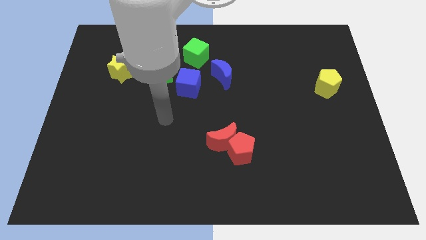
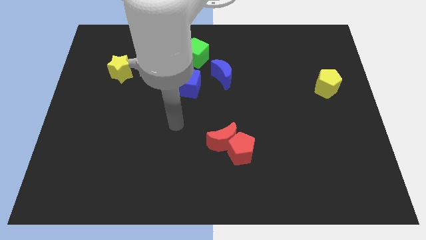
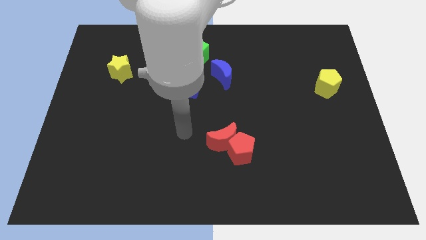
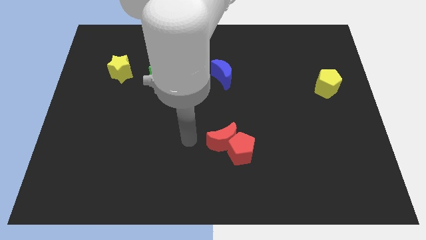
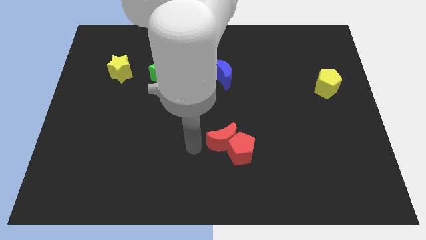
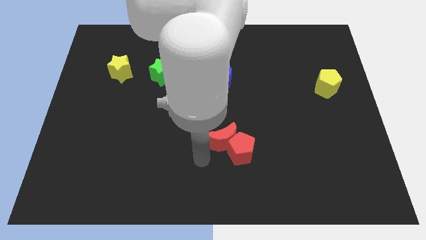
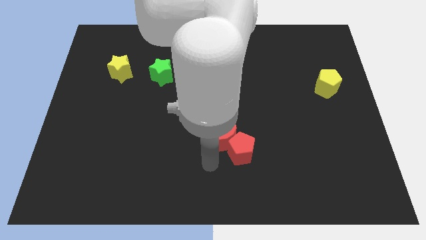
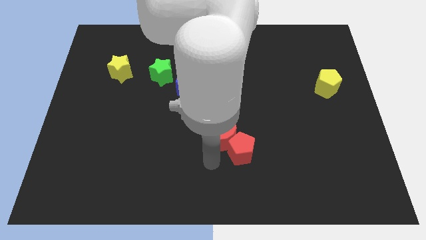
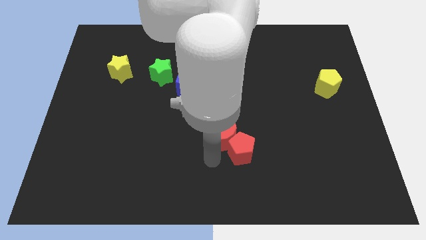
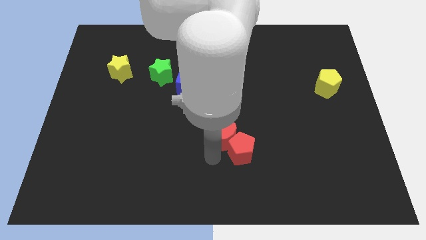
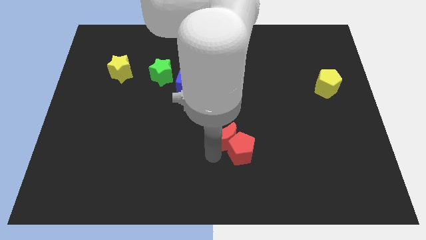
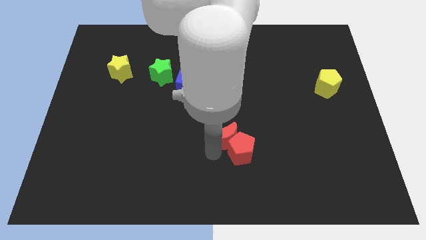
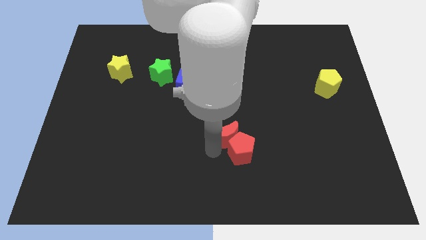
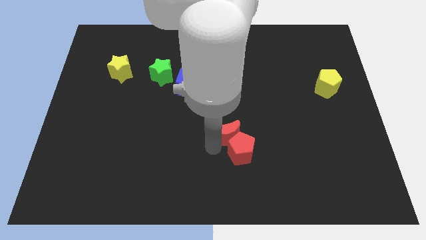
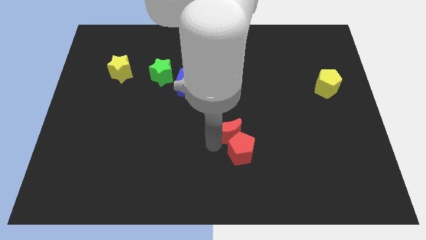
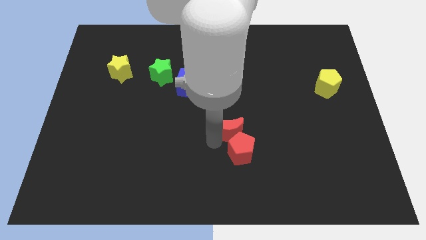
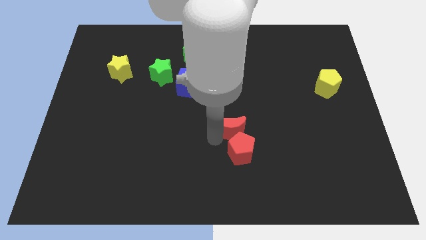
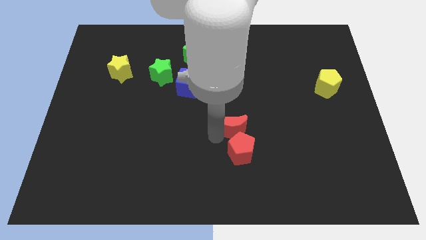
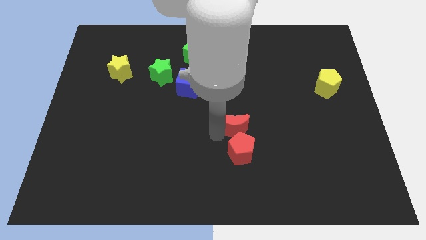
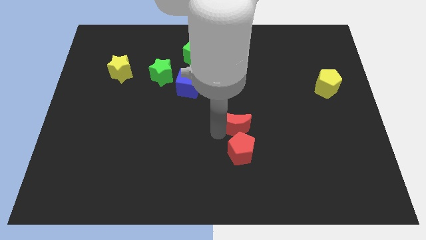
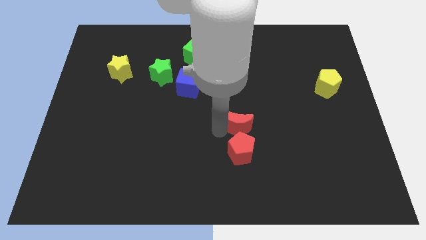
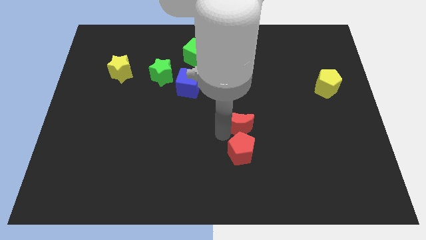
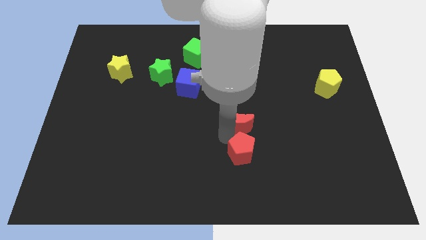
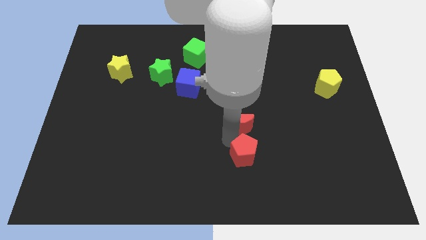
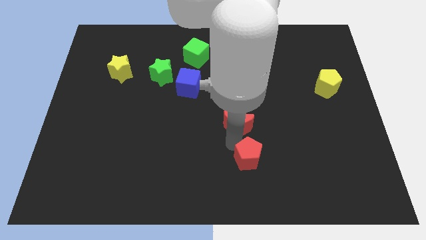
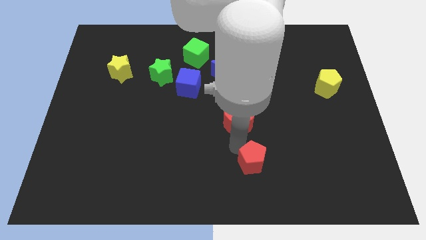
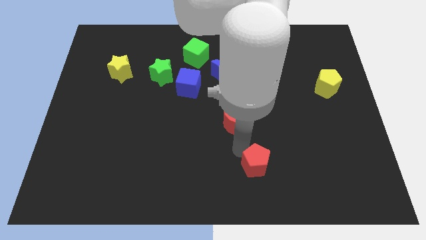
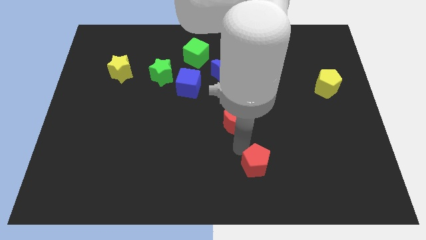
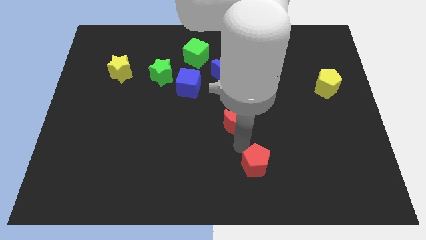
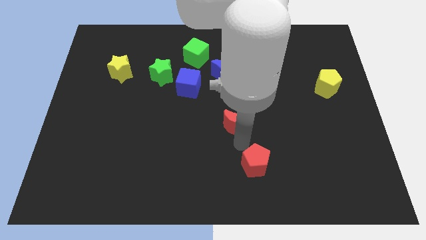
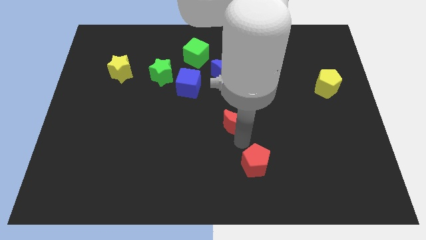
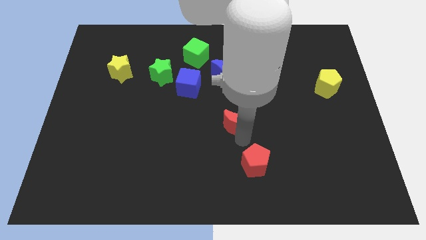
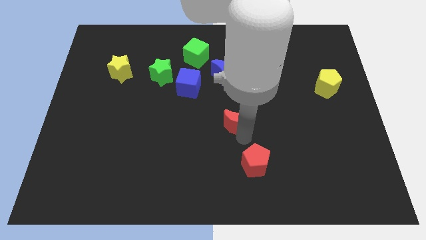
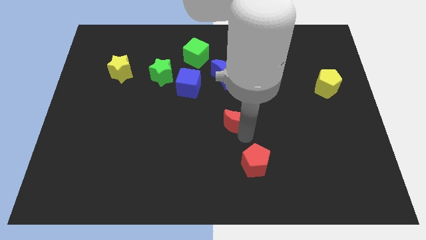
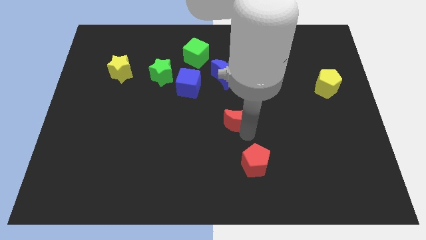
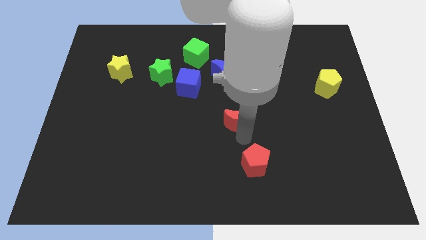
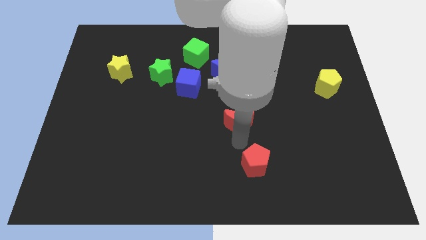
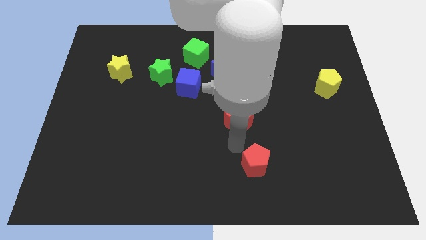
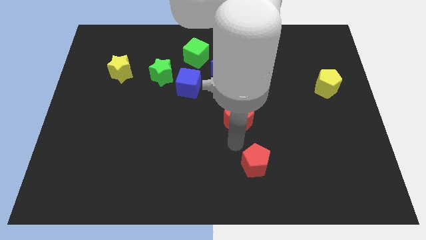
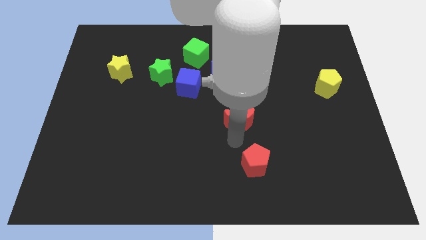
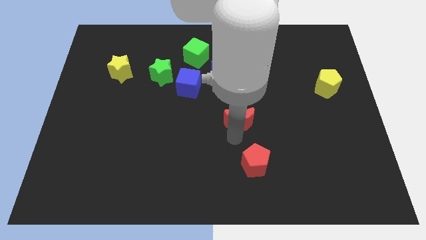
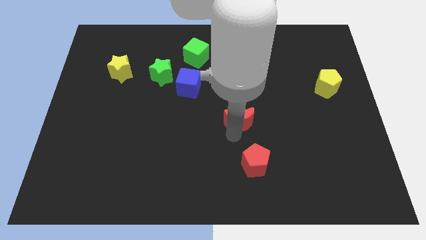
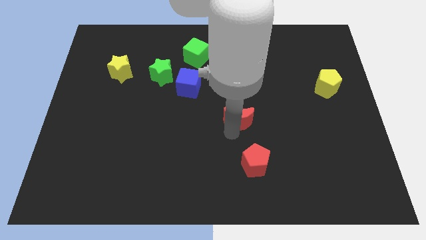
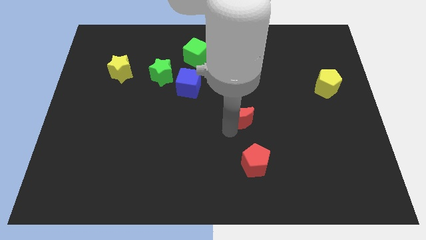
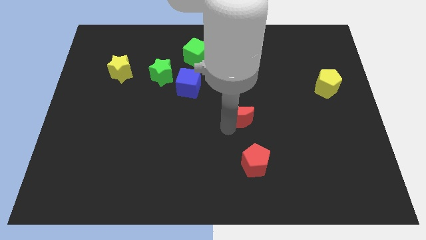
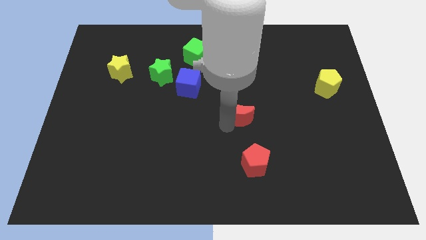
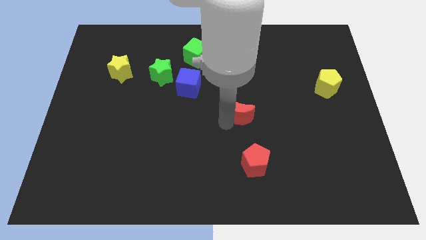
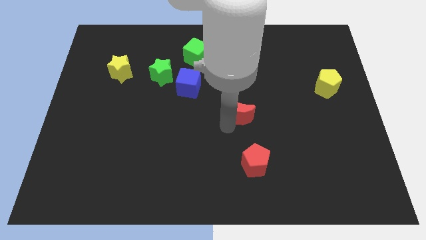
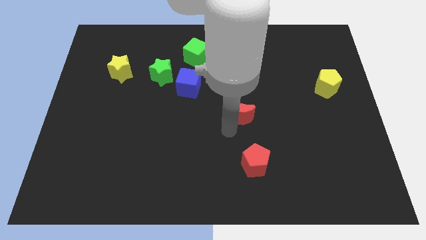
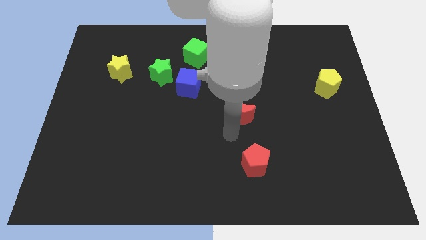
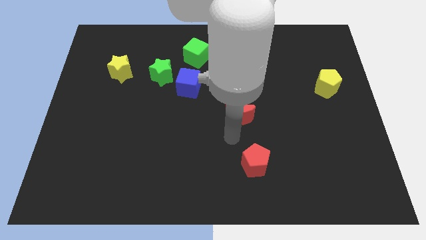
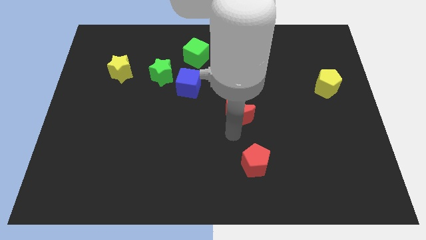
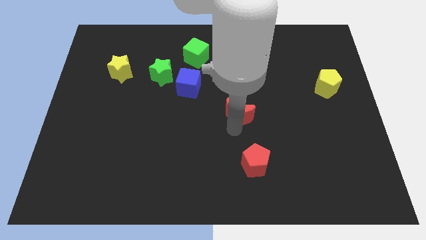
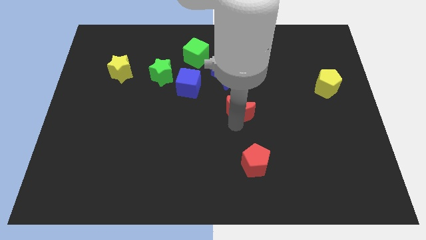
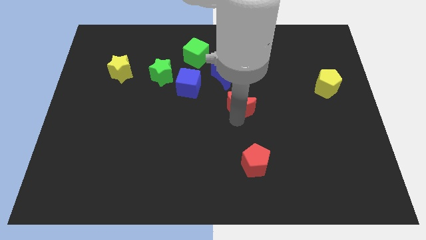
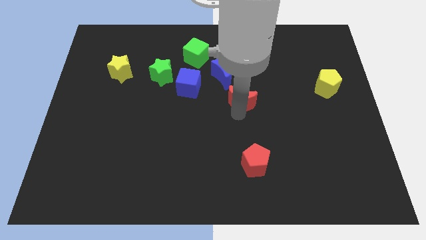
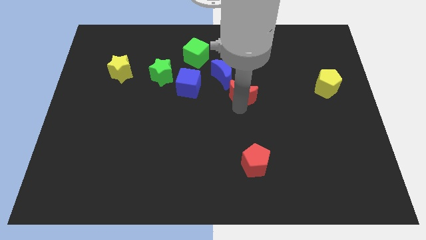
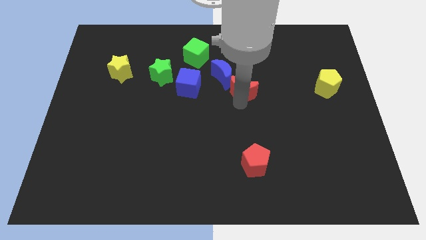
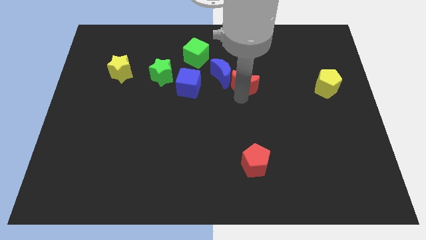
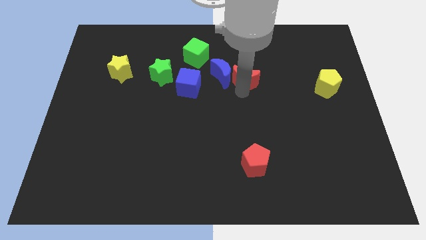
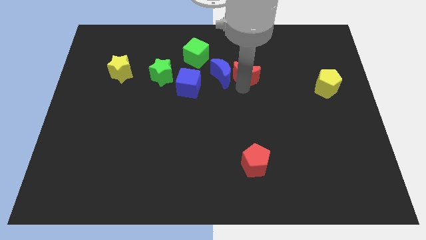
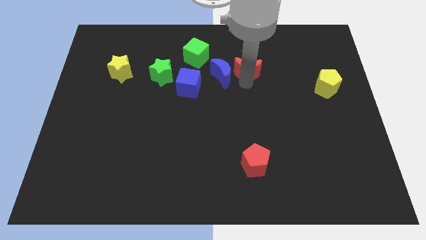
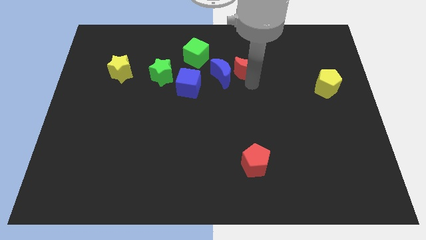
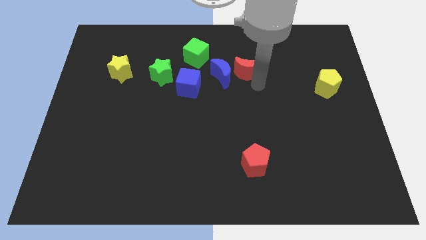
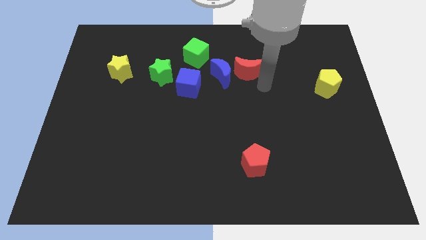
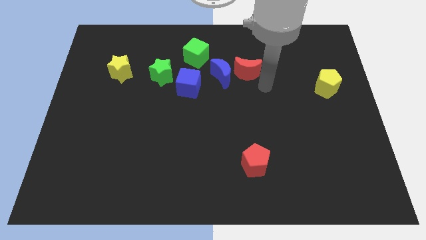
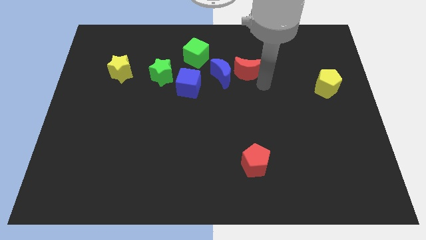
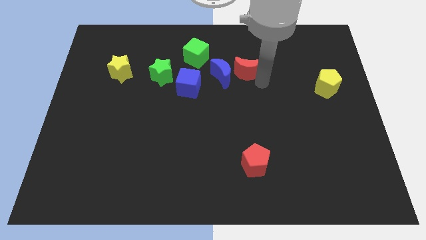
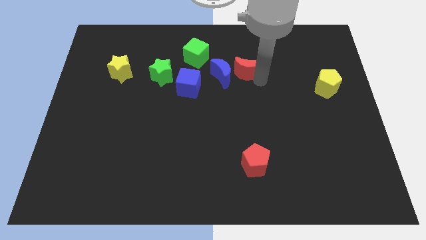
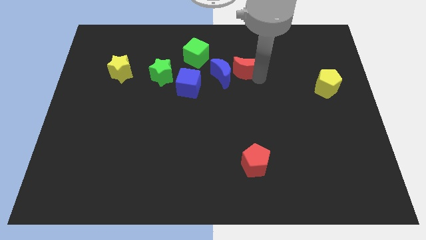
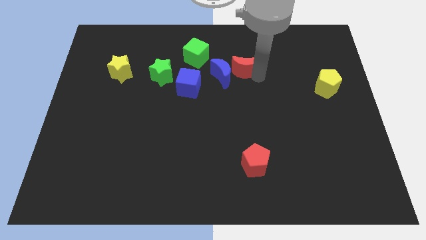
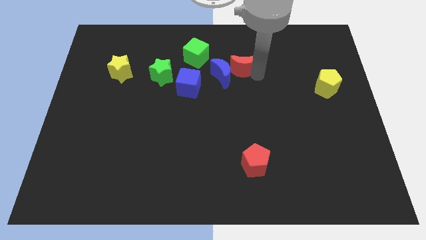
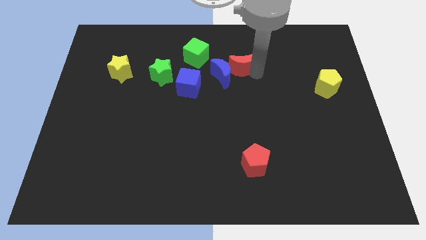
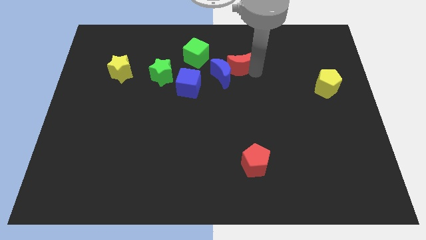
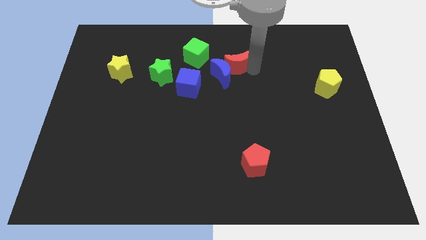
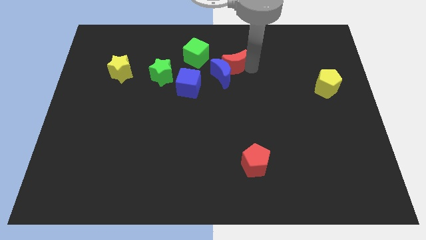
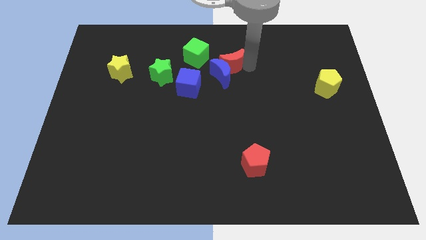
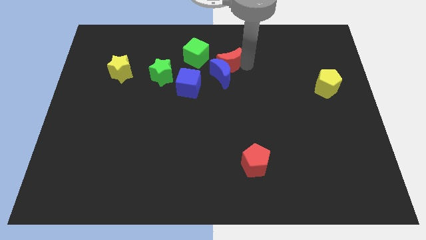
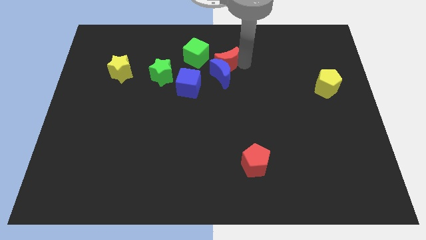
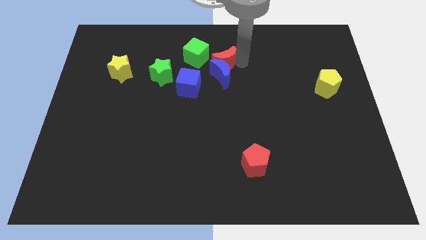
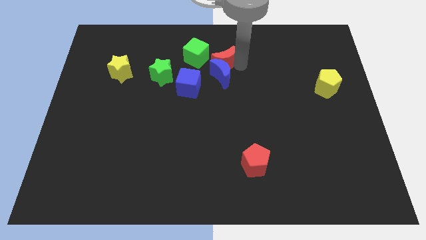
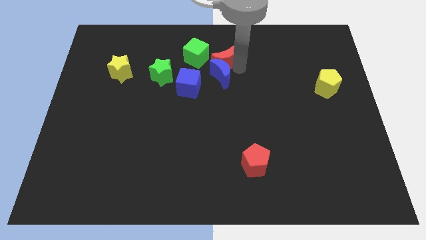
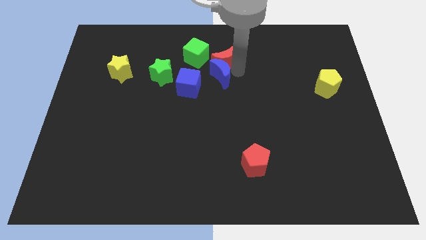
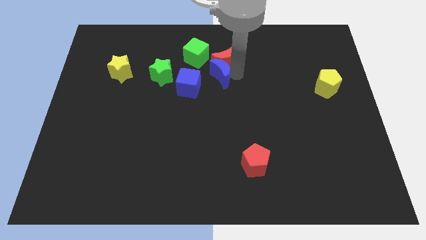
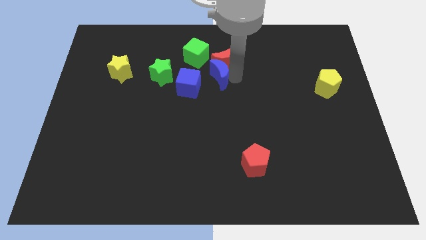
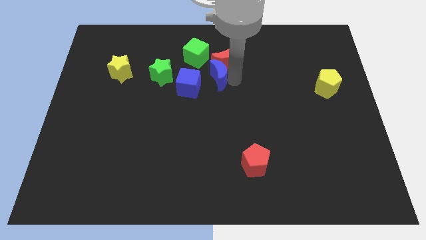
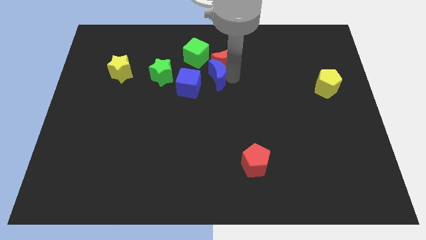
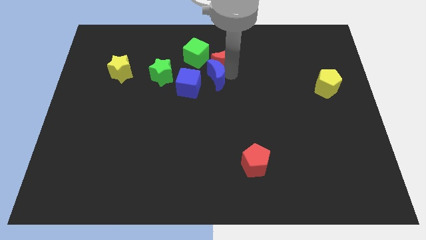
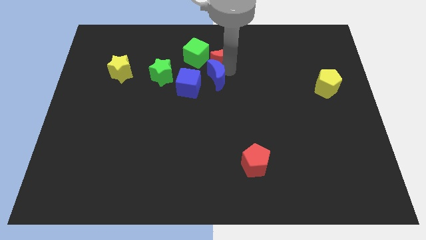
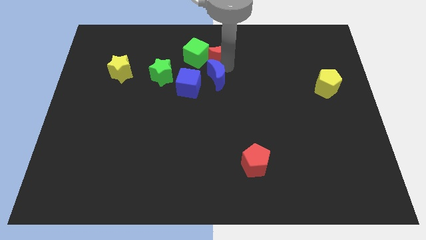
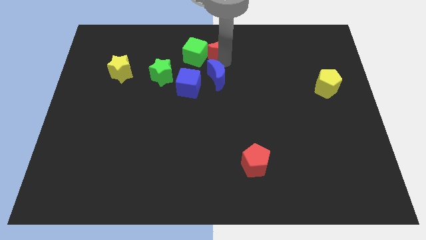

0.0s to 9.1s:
put the red moon to the towards your base
